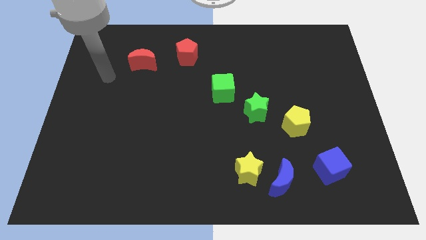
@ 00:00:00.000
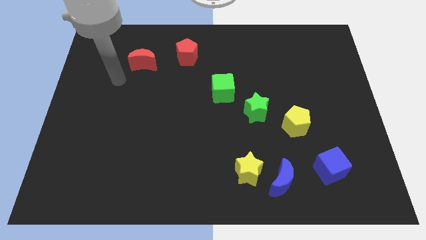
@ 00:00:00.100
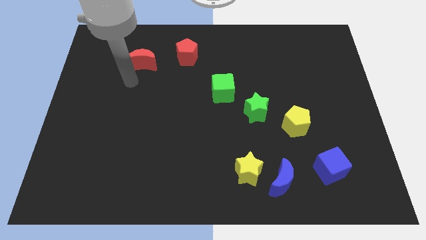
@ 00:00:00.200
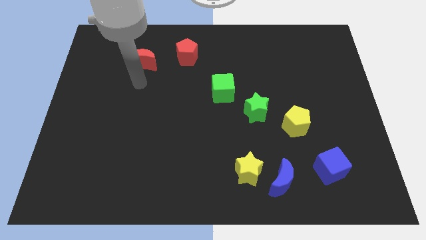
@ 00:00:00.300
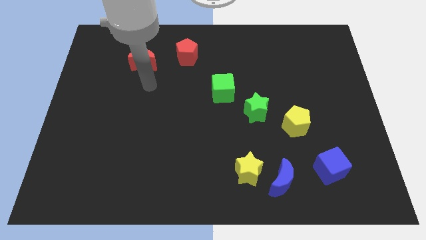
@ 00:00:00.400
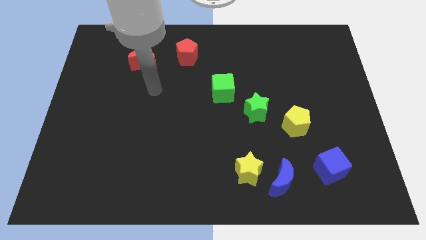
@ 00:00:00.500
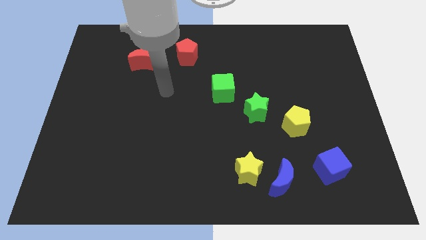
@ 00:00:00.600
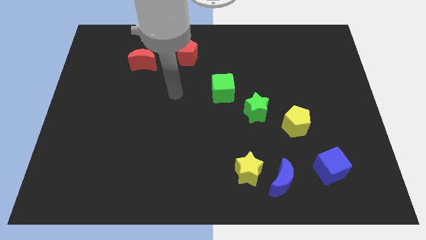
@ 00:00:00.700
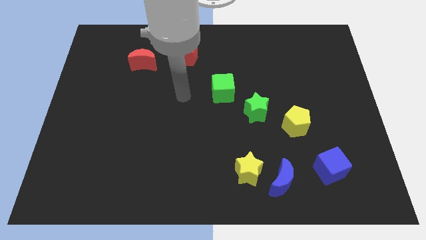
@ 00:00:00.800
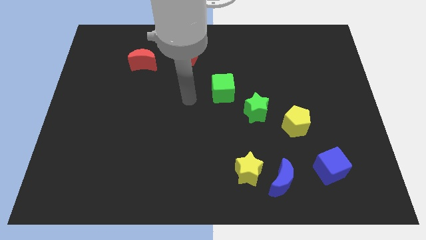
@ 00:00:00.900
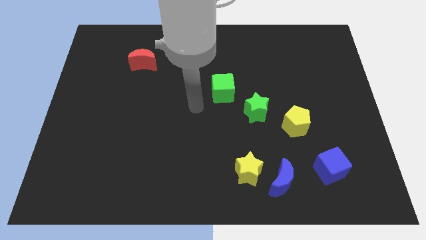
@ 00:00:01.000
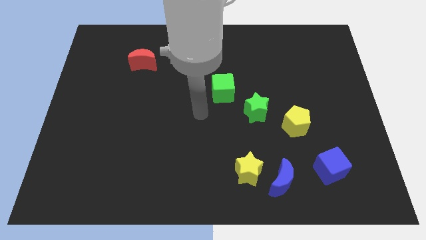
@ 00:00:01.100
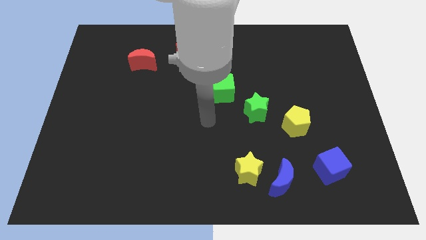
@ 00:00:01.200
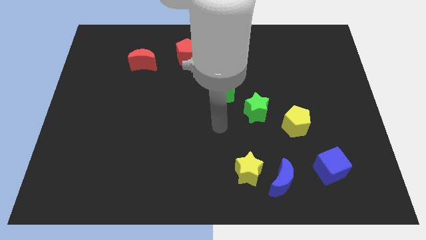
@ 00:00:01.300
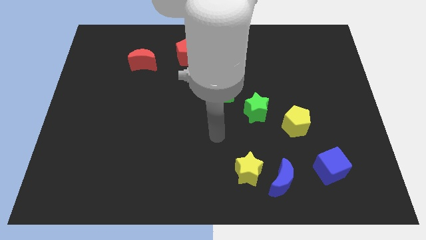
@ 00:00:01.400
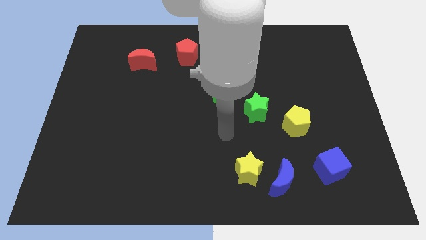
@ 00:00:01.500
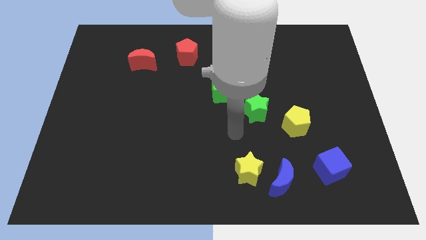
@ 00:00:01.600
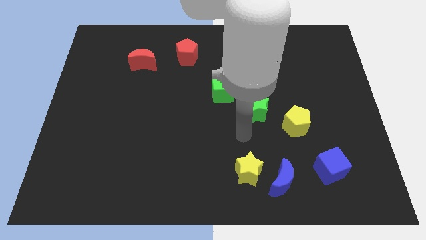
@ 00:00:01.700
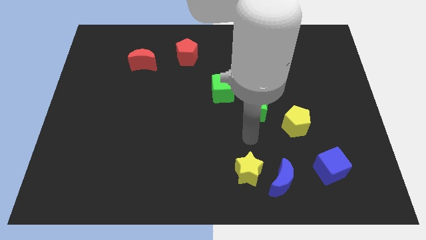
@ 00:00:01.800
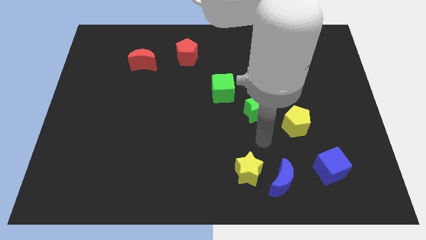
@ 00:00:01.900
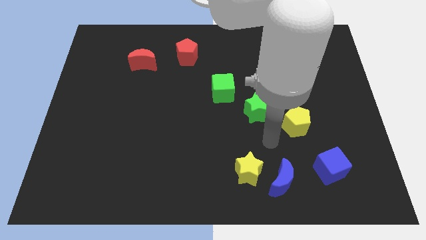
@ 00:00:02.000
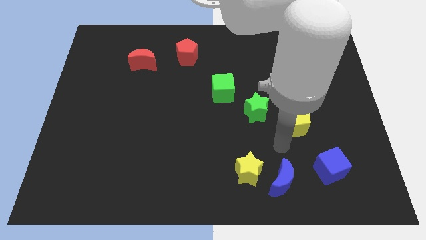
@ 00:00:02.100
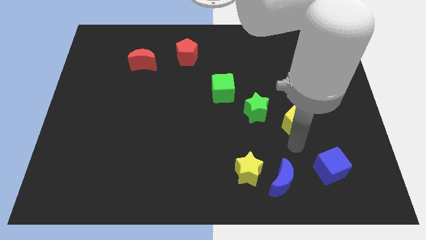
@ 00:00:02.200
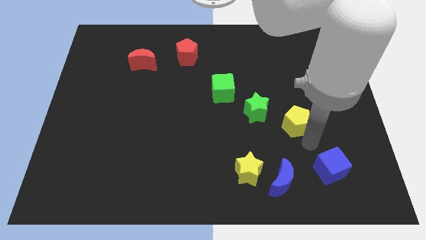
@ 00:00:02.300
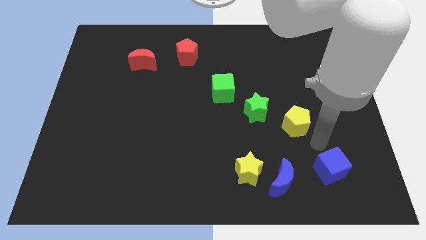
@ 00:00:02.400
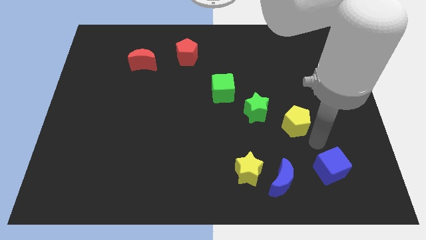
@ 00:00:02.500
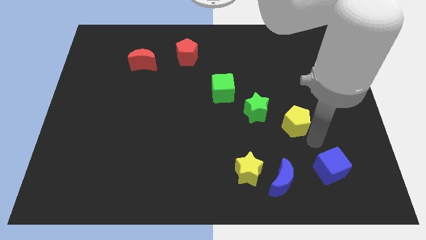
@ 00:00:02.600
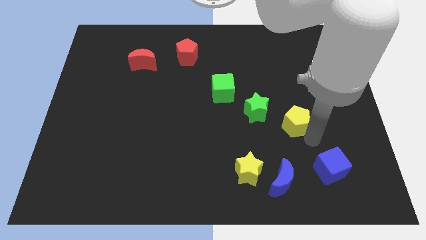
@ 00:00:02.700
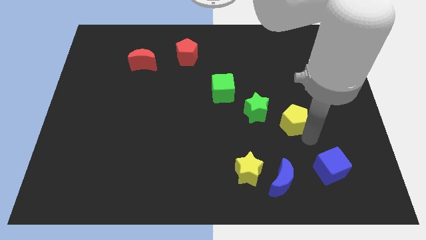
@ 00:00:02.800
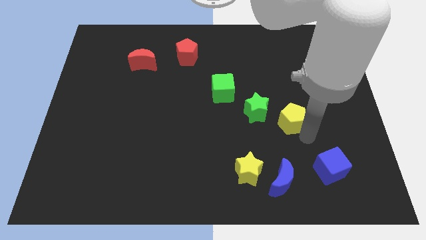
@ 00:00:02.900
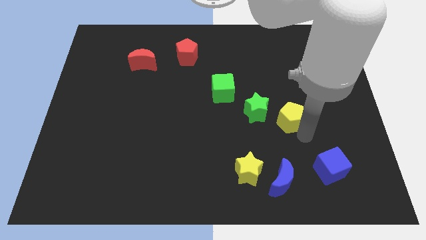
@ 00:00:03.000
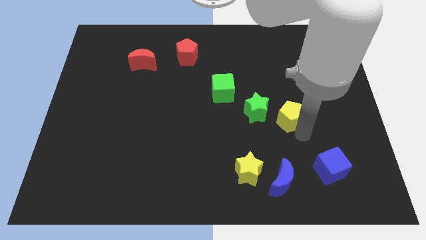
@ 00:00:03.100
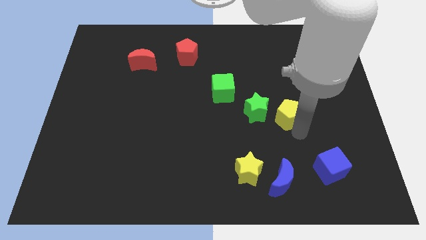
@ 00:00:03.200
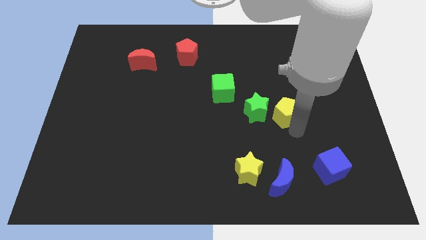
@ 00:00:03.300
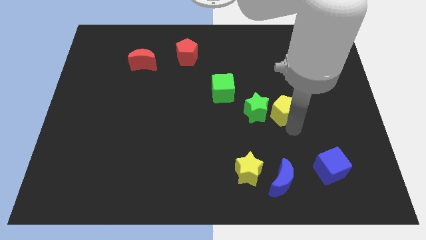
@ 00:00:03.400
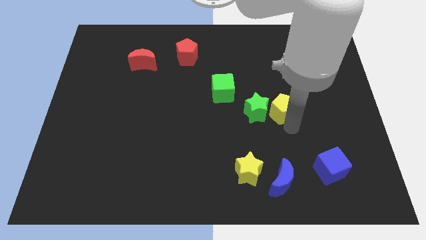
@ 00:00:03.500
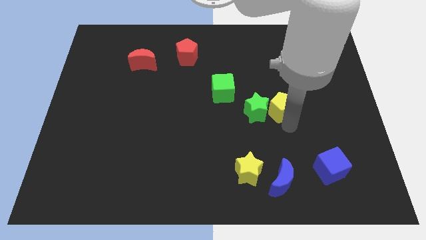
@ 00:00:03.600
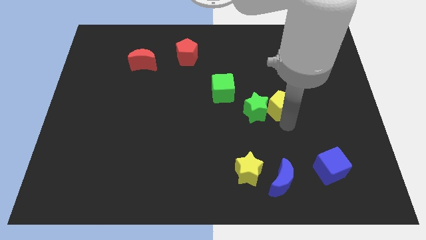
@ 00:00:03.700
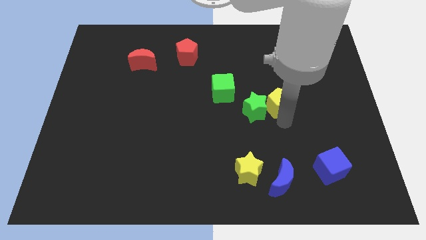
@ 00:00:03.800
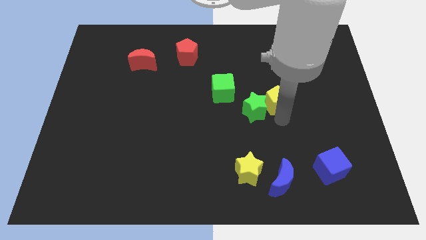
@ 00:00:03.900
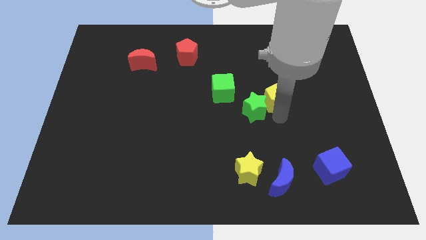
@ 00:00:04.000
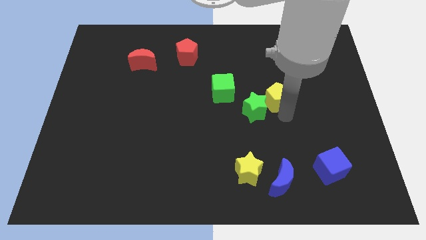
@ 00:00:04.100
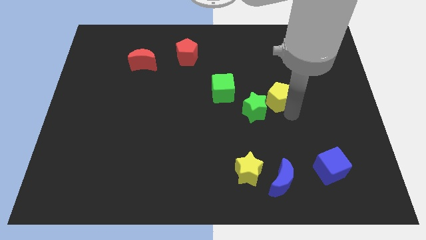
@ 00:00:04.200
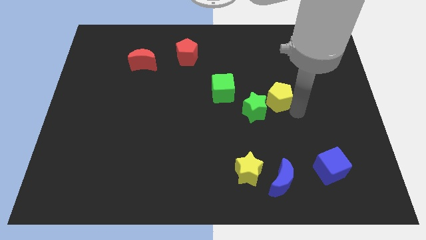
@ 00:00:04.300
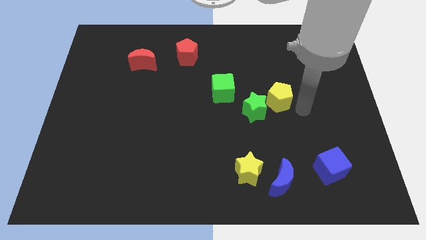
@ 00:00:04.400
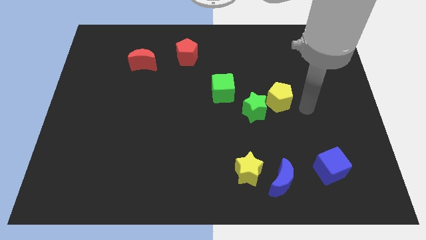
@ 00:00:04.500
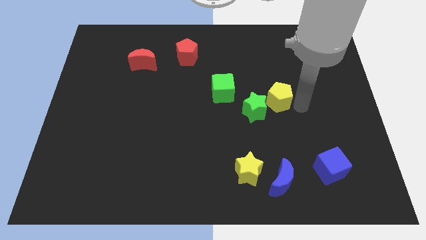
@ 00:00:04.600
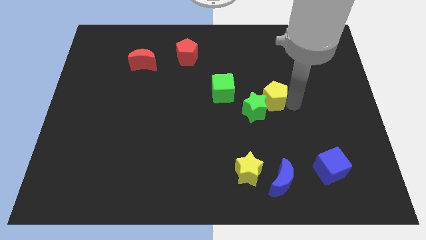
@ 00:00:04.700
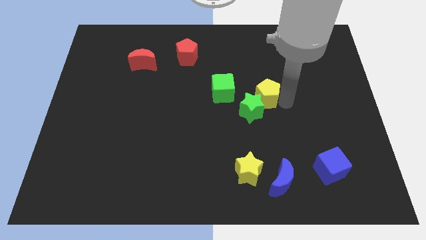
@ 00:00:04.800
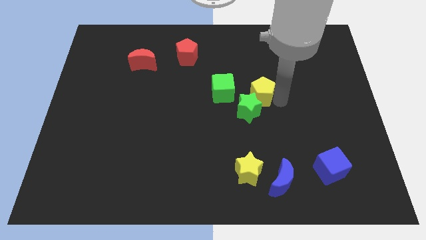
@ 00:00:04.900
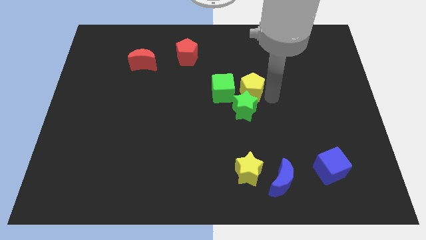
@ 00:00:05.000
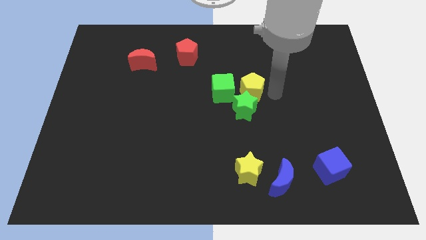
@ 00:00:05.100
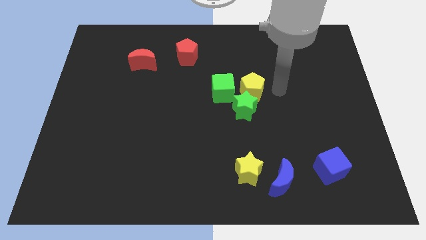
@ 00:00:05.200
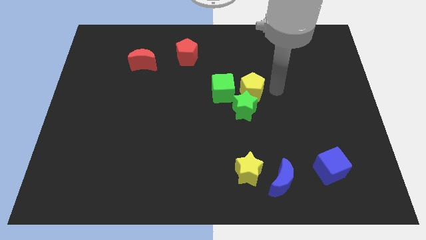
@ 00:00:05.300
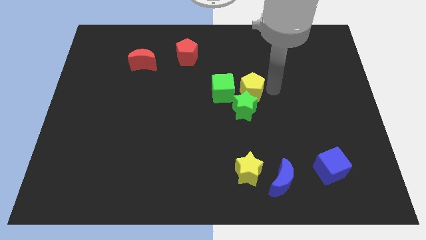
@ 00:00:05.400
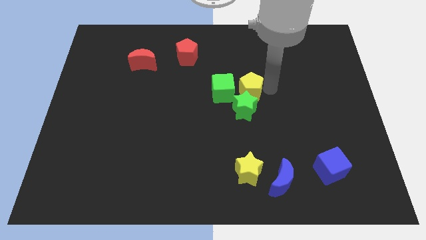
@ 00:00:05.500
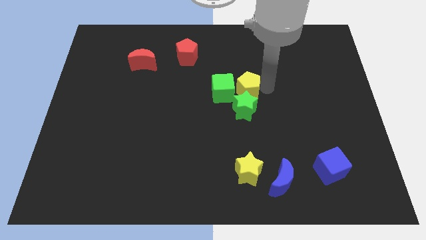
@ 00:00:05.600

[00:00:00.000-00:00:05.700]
slide the yellow pentagon next to the green cube
